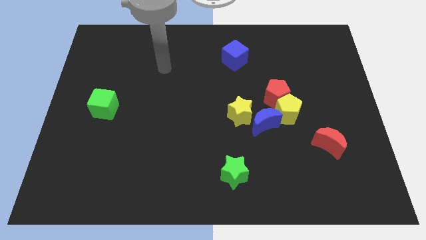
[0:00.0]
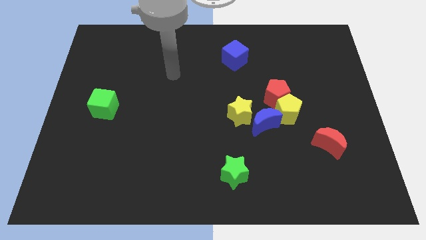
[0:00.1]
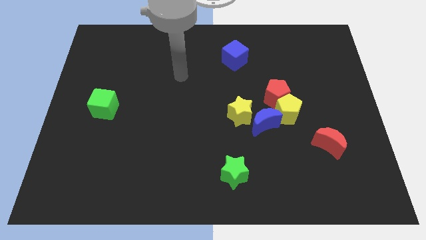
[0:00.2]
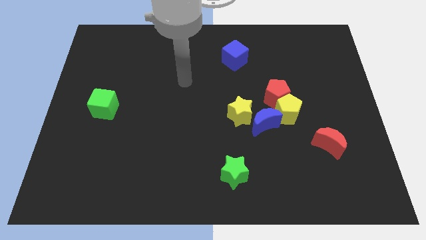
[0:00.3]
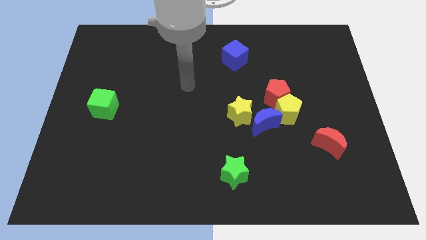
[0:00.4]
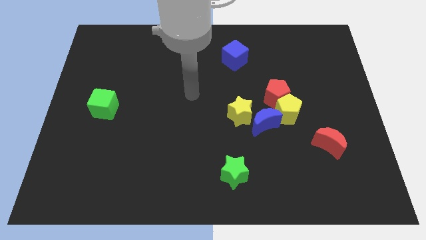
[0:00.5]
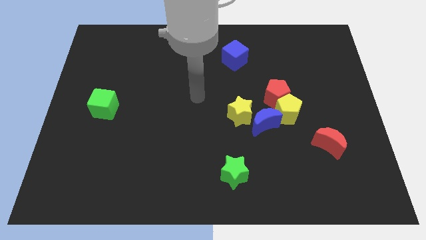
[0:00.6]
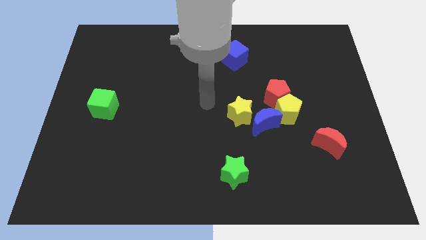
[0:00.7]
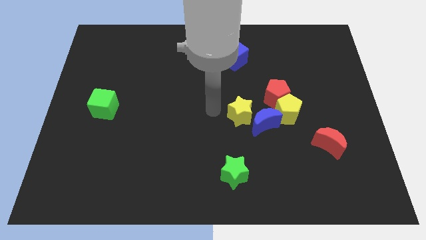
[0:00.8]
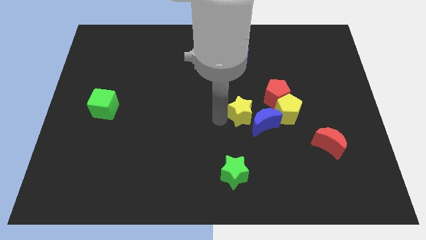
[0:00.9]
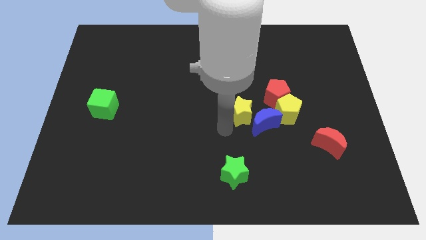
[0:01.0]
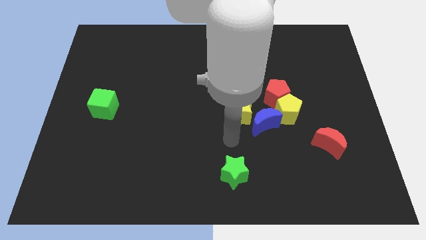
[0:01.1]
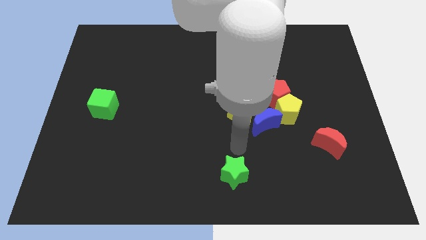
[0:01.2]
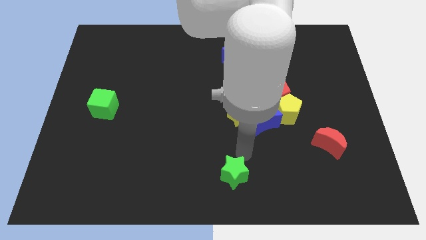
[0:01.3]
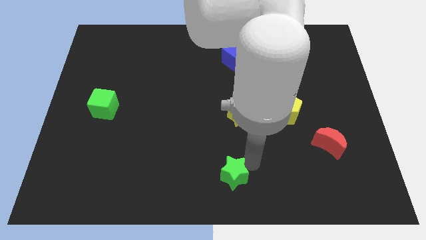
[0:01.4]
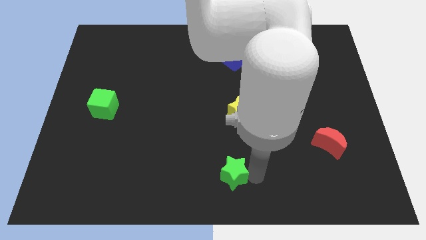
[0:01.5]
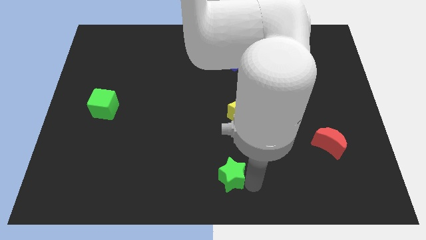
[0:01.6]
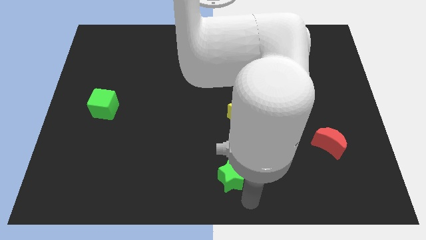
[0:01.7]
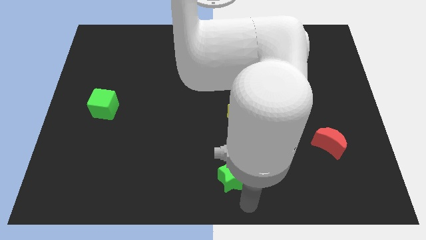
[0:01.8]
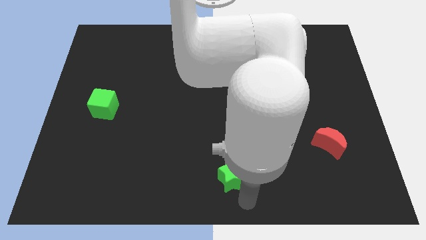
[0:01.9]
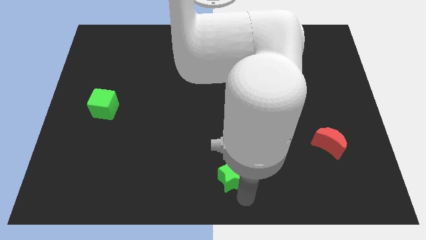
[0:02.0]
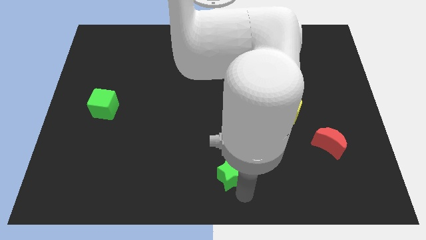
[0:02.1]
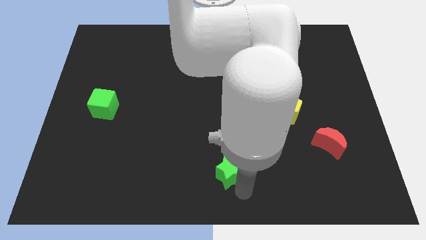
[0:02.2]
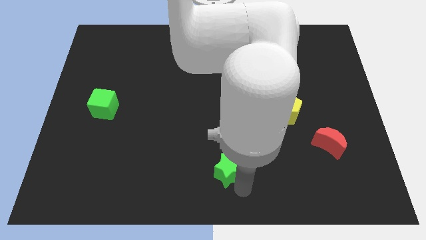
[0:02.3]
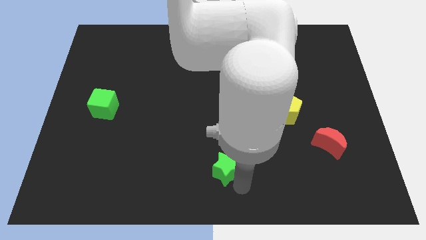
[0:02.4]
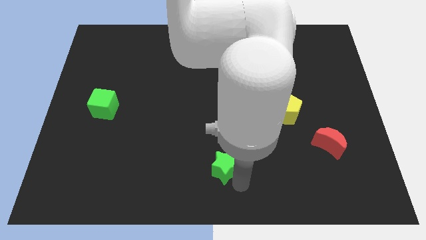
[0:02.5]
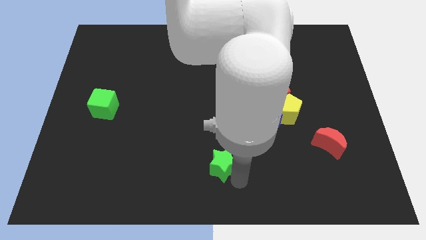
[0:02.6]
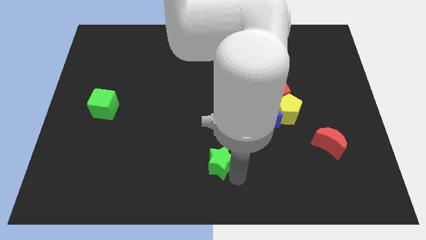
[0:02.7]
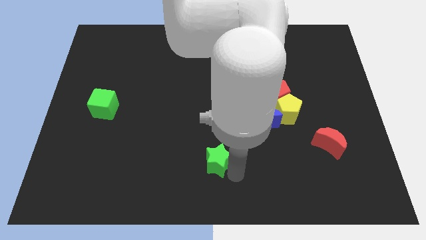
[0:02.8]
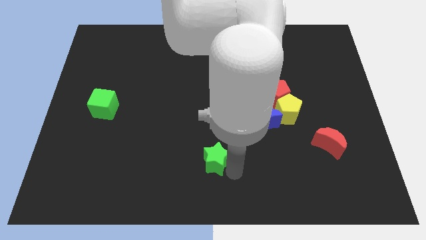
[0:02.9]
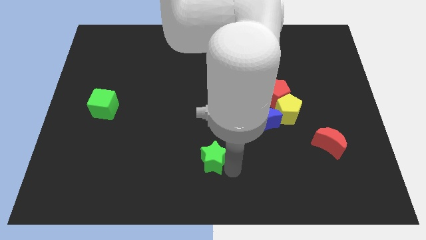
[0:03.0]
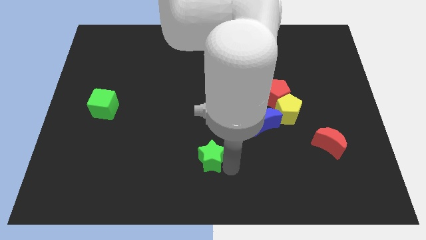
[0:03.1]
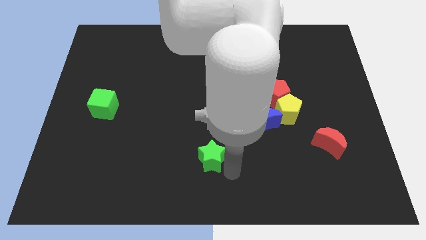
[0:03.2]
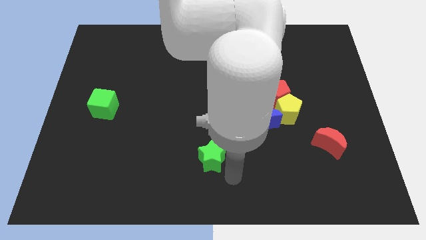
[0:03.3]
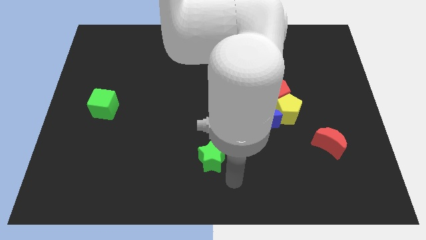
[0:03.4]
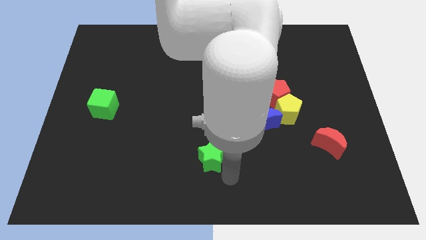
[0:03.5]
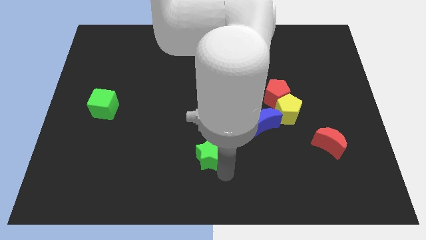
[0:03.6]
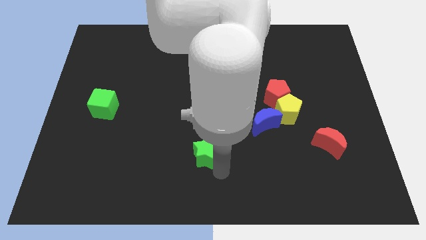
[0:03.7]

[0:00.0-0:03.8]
slightly move the green star up and to the left

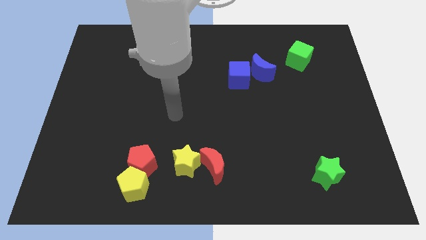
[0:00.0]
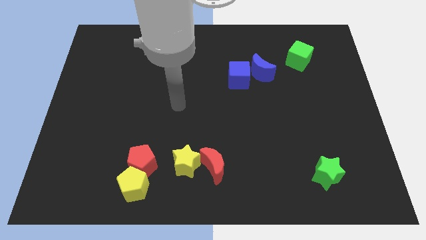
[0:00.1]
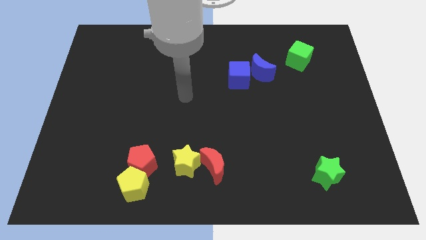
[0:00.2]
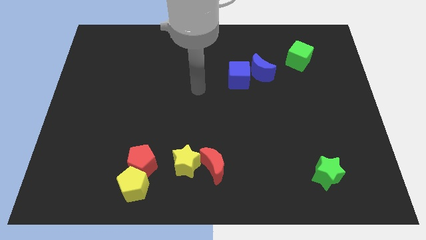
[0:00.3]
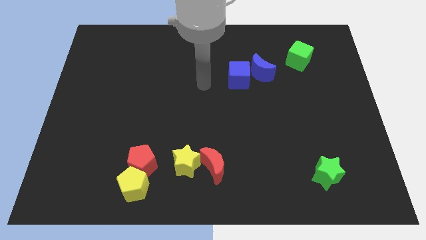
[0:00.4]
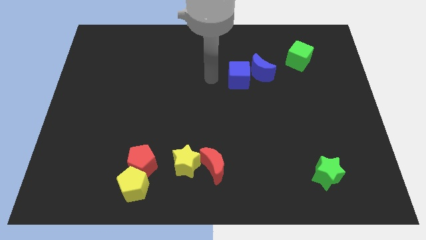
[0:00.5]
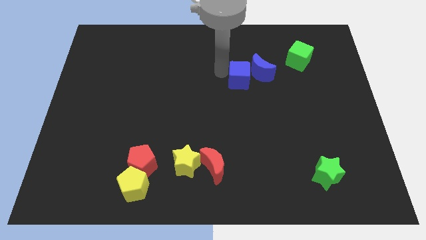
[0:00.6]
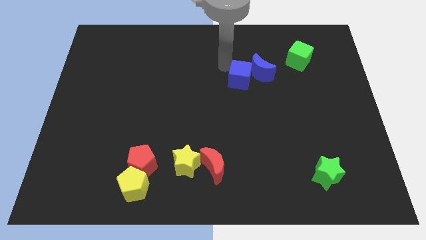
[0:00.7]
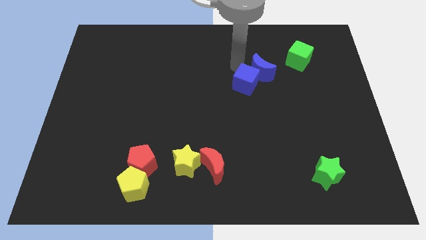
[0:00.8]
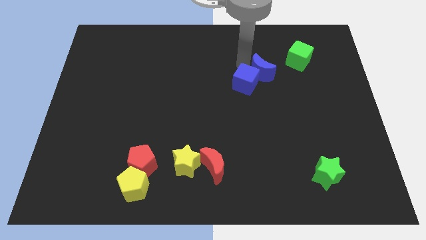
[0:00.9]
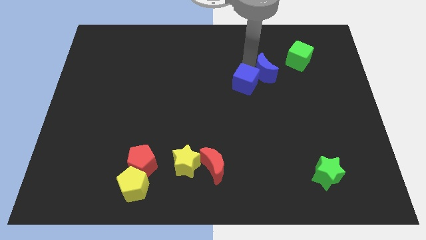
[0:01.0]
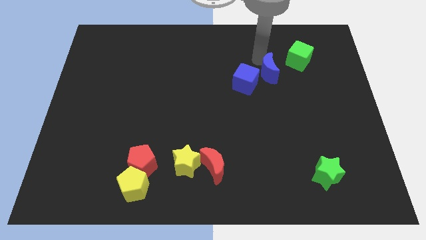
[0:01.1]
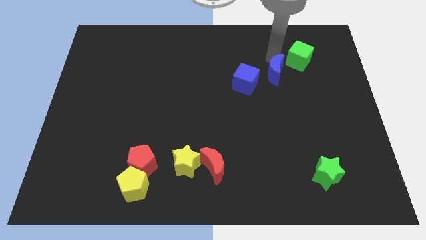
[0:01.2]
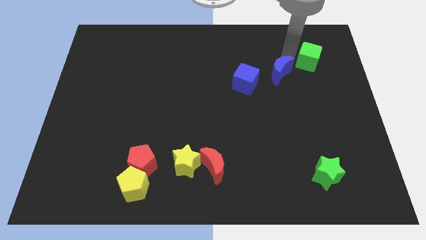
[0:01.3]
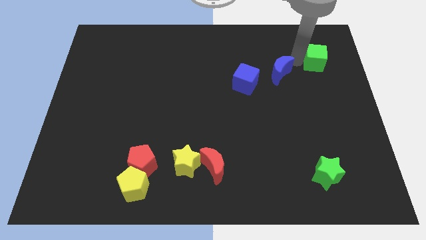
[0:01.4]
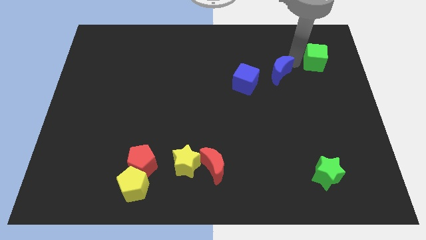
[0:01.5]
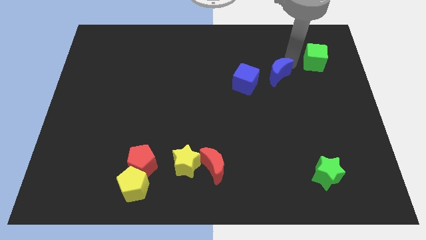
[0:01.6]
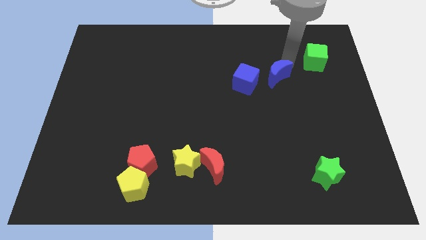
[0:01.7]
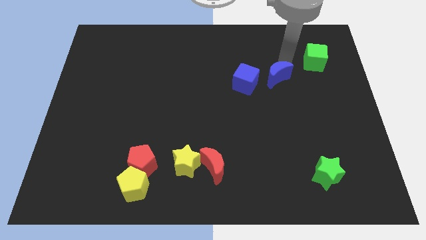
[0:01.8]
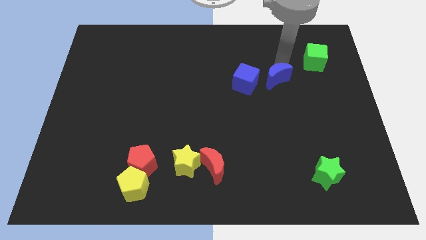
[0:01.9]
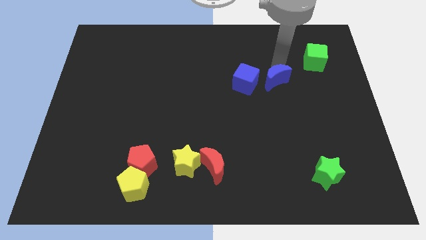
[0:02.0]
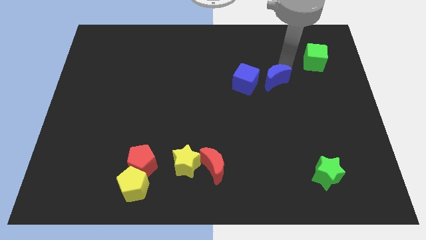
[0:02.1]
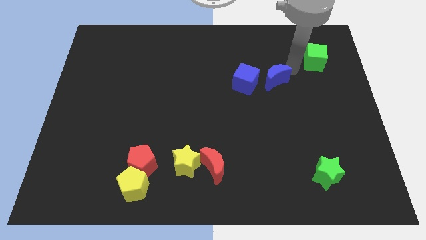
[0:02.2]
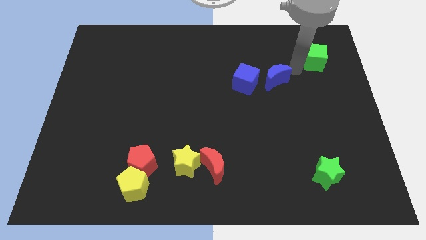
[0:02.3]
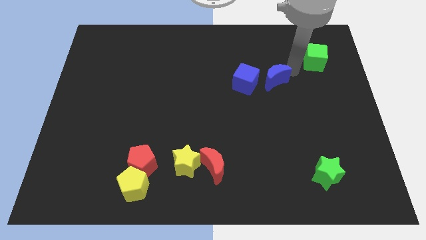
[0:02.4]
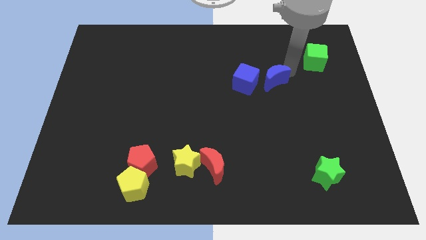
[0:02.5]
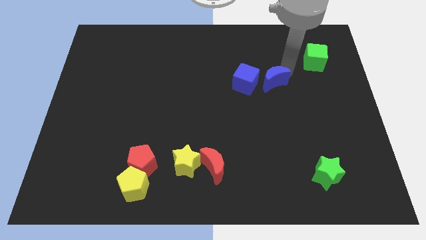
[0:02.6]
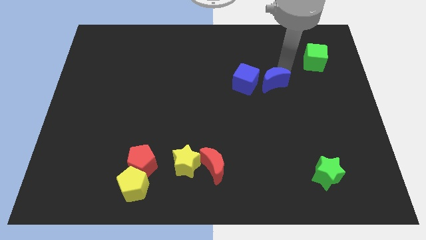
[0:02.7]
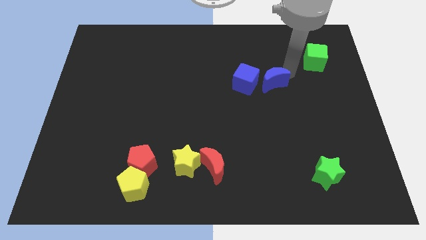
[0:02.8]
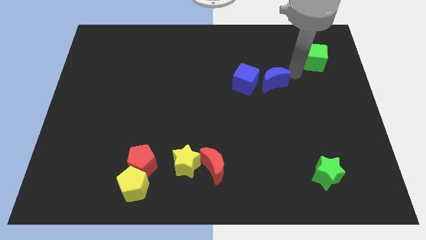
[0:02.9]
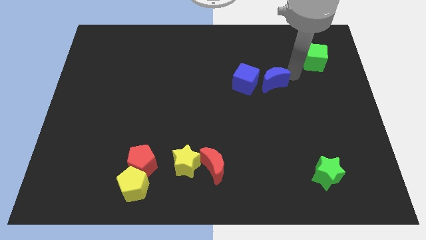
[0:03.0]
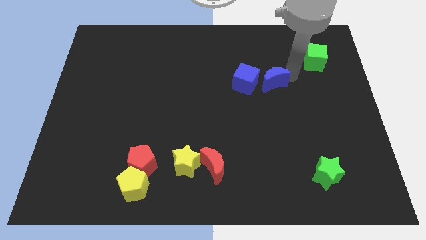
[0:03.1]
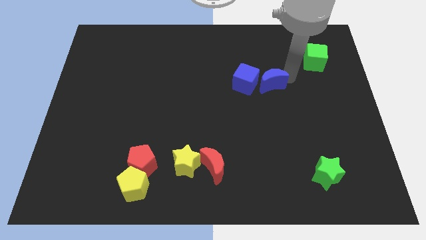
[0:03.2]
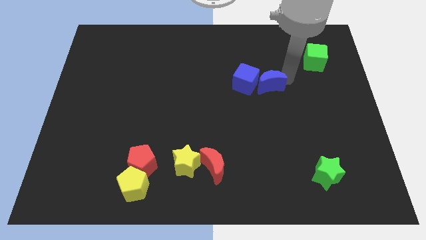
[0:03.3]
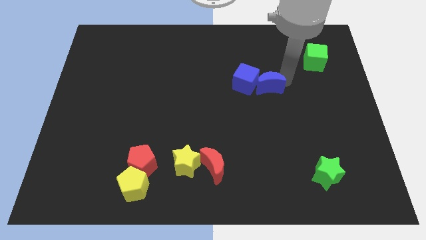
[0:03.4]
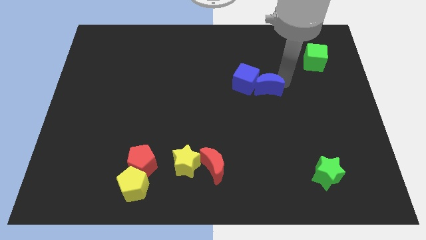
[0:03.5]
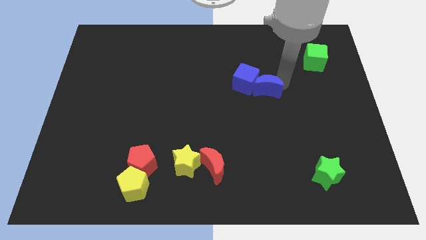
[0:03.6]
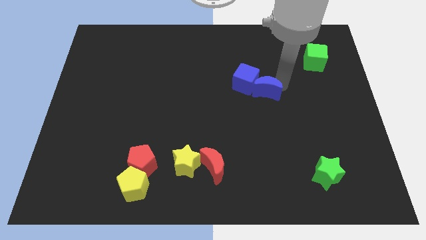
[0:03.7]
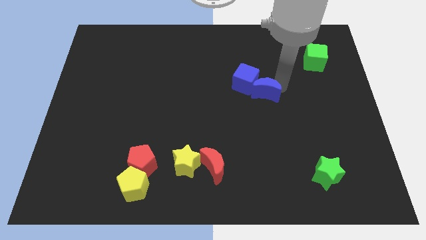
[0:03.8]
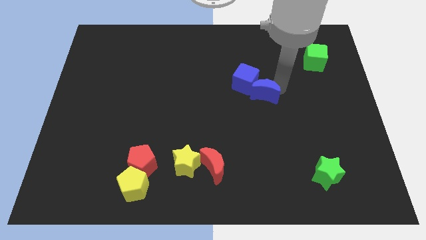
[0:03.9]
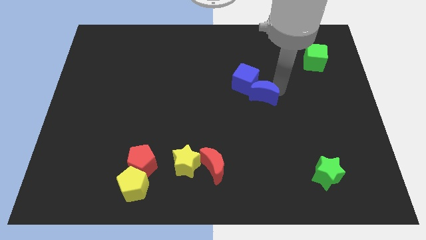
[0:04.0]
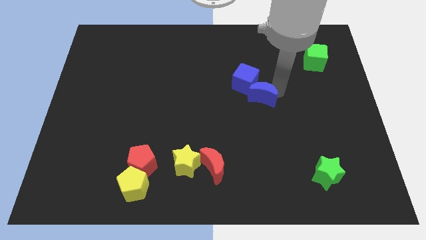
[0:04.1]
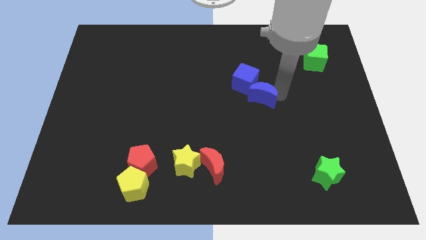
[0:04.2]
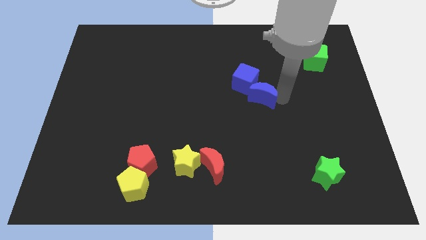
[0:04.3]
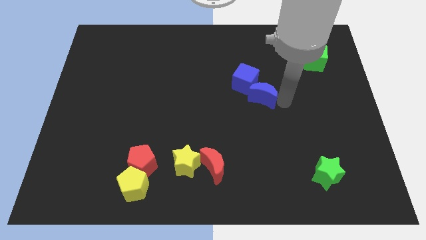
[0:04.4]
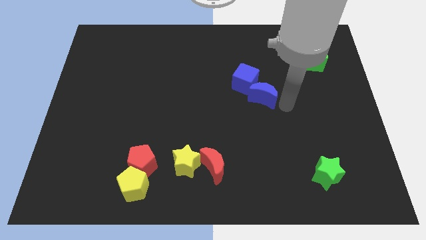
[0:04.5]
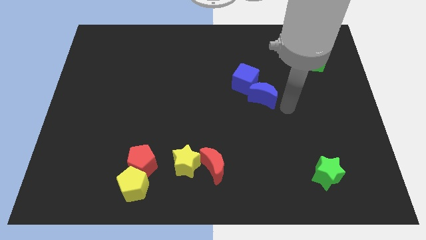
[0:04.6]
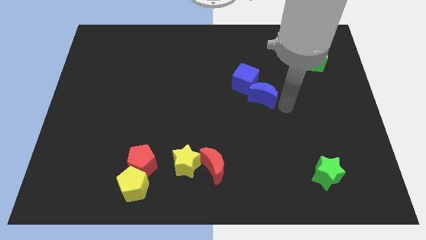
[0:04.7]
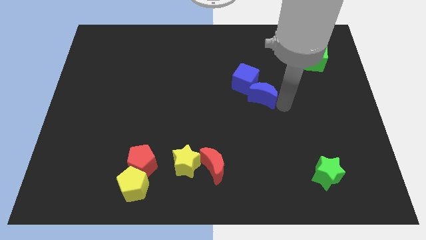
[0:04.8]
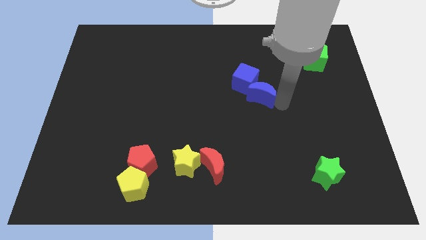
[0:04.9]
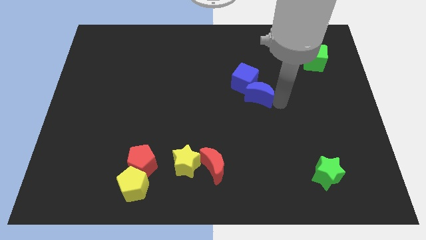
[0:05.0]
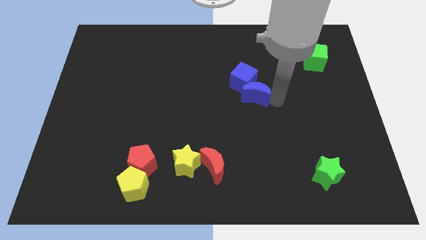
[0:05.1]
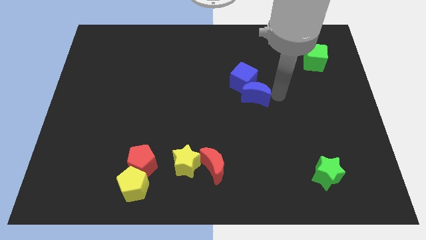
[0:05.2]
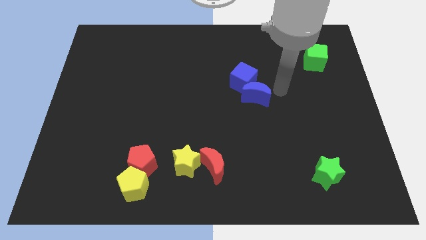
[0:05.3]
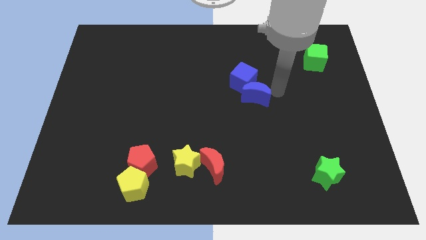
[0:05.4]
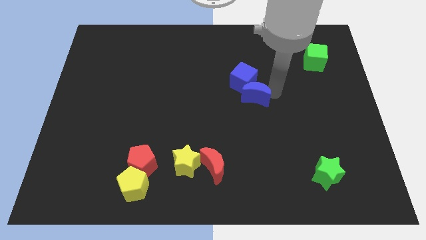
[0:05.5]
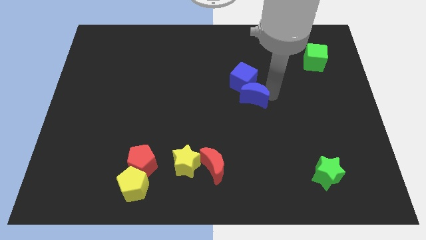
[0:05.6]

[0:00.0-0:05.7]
push the blue moon somewhat downwards and to the left
